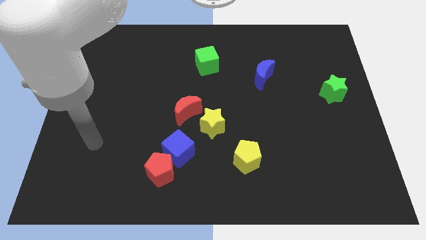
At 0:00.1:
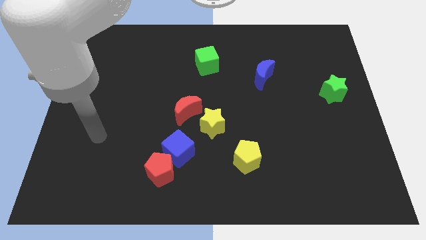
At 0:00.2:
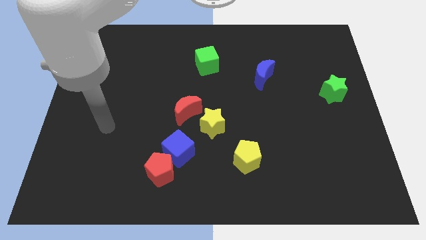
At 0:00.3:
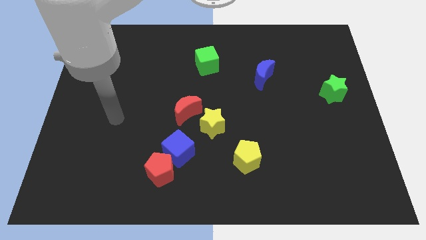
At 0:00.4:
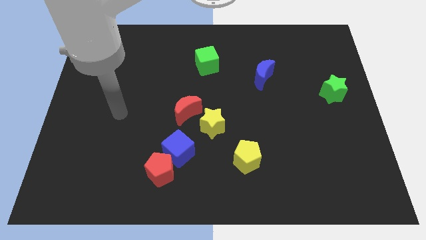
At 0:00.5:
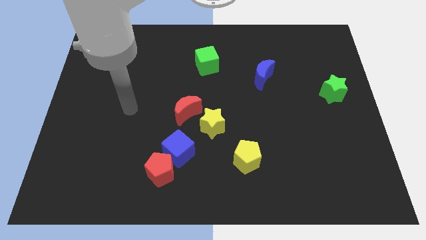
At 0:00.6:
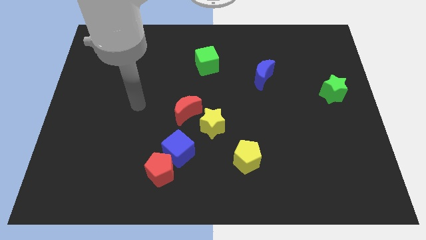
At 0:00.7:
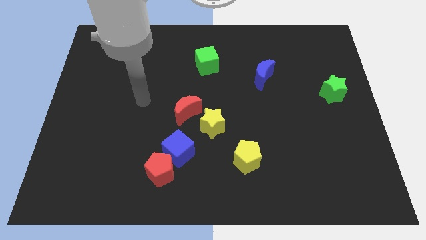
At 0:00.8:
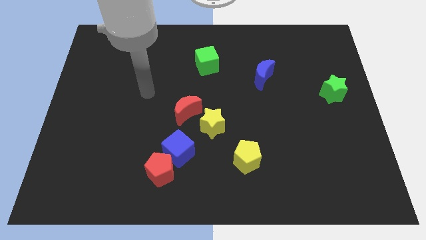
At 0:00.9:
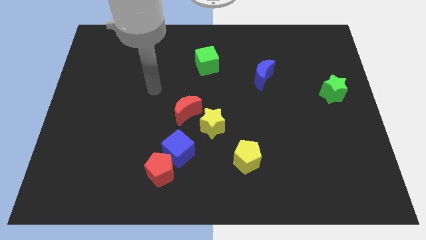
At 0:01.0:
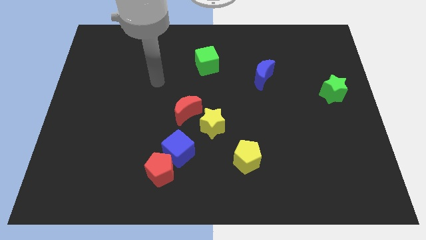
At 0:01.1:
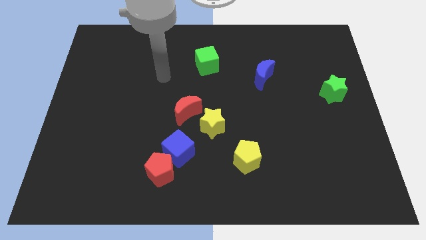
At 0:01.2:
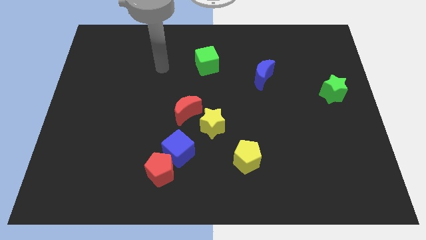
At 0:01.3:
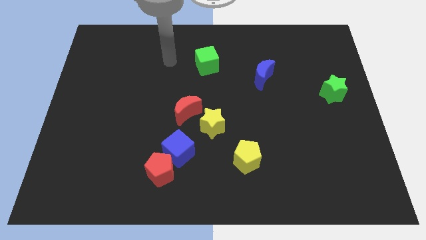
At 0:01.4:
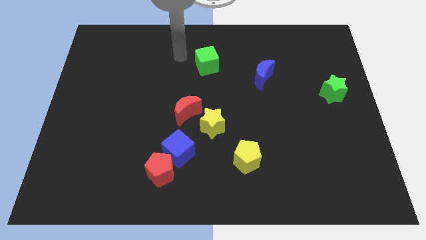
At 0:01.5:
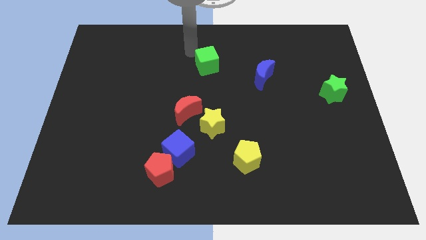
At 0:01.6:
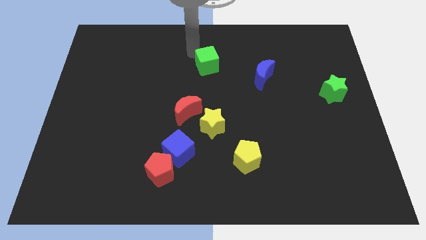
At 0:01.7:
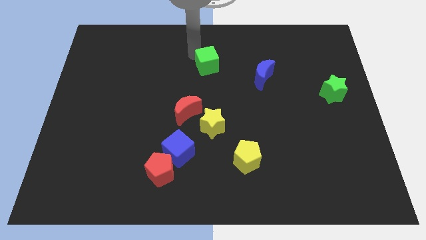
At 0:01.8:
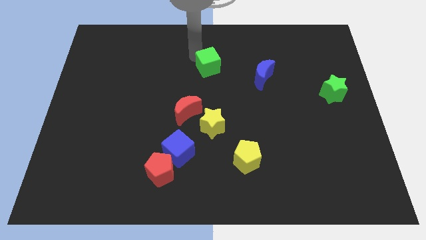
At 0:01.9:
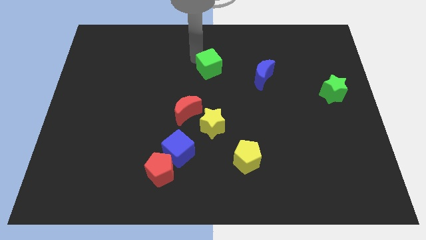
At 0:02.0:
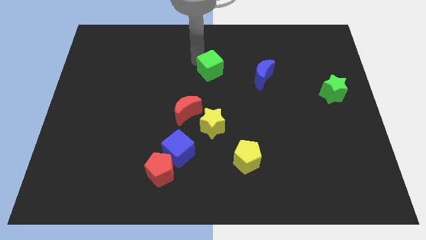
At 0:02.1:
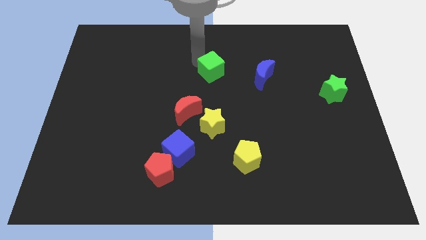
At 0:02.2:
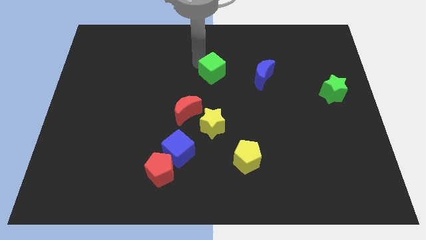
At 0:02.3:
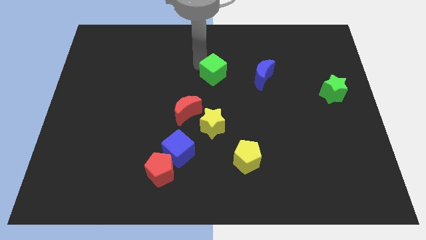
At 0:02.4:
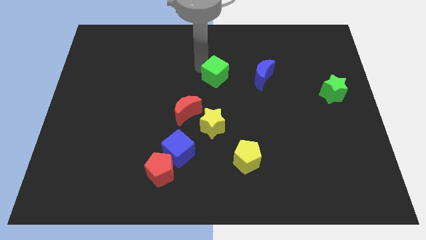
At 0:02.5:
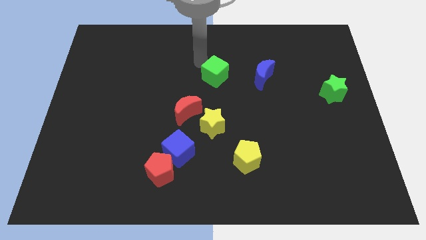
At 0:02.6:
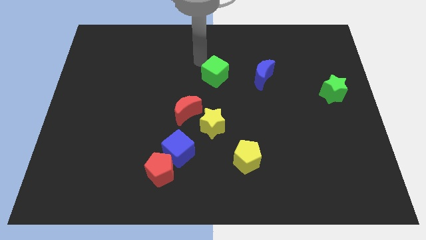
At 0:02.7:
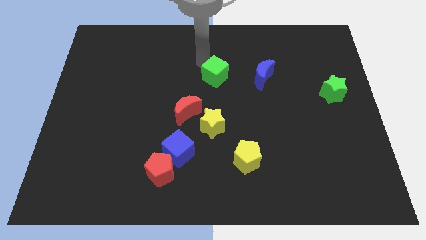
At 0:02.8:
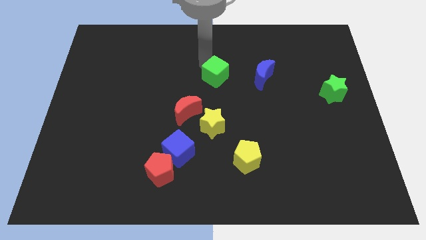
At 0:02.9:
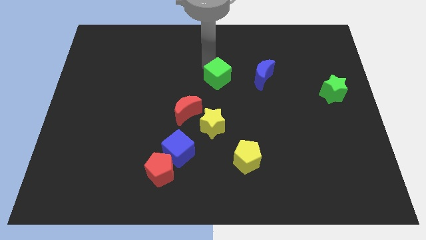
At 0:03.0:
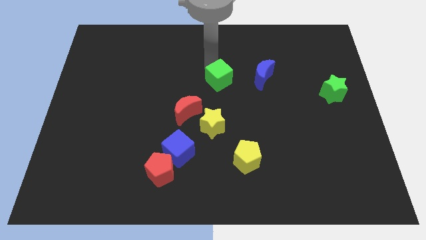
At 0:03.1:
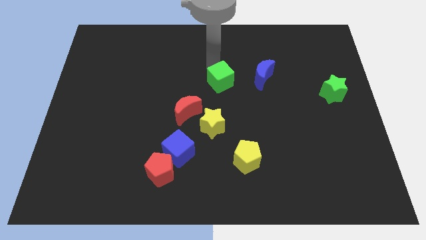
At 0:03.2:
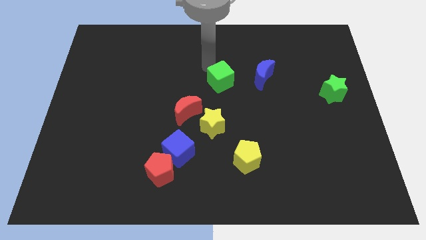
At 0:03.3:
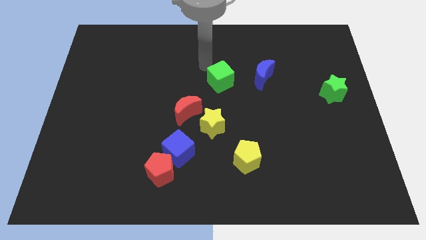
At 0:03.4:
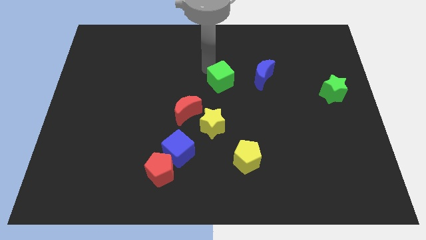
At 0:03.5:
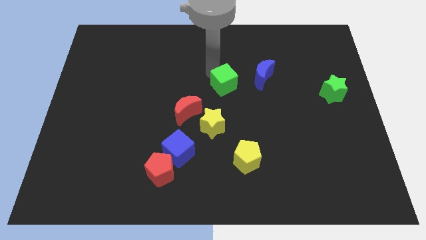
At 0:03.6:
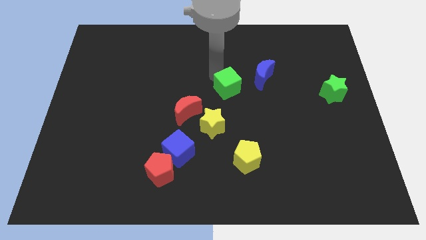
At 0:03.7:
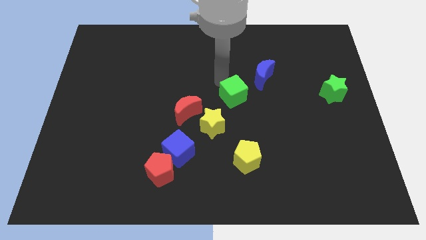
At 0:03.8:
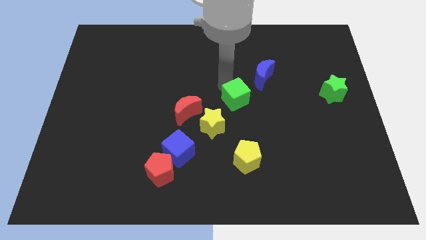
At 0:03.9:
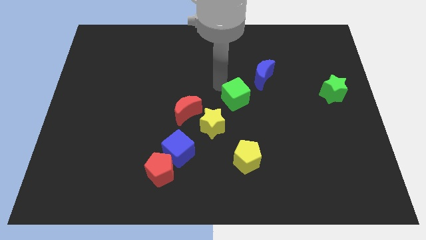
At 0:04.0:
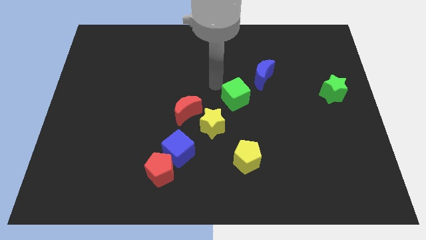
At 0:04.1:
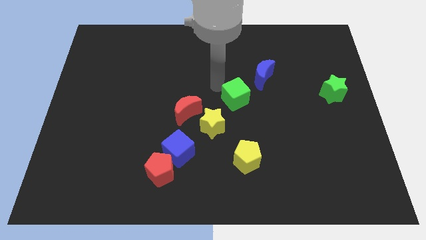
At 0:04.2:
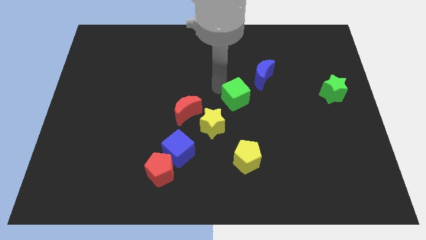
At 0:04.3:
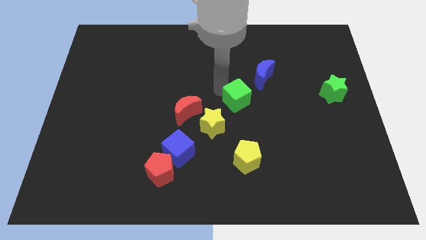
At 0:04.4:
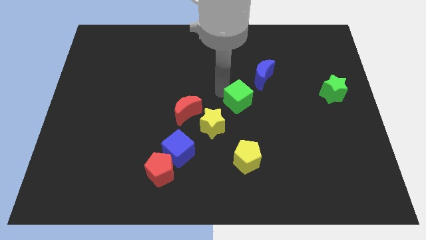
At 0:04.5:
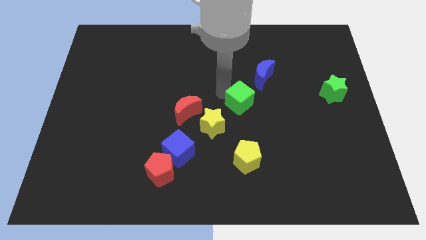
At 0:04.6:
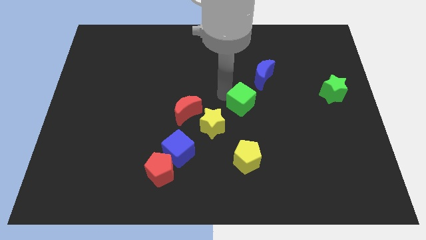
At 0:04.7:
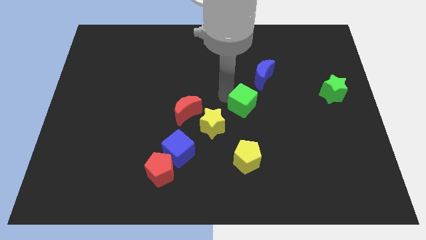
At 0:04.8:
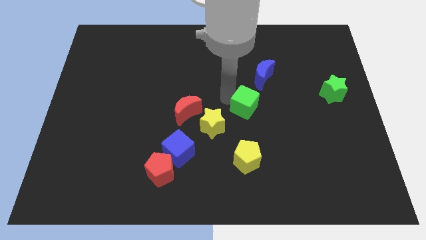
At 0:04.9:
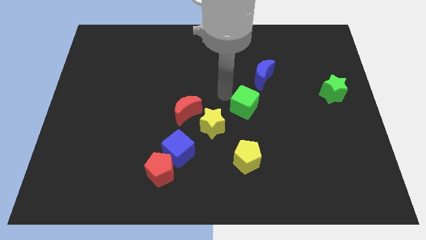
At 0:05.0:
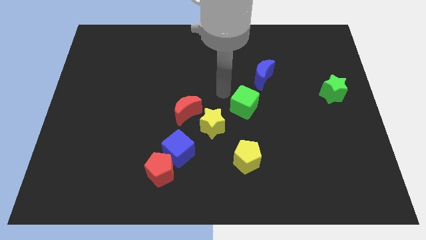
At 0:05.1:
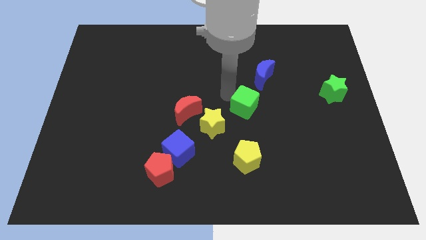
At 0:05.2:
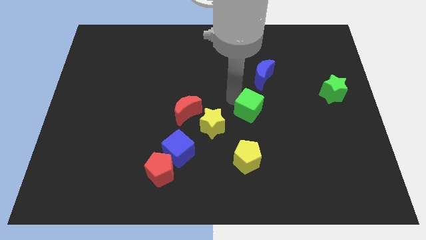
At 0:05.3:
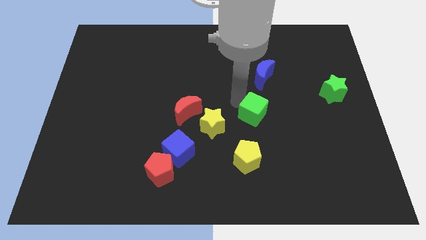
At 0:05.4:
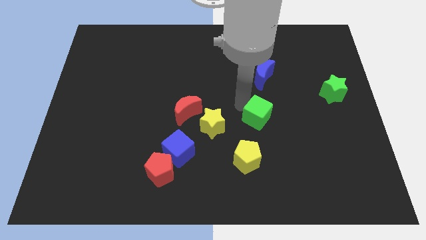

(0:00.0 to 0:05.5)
slide the green cube diagonally downwards and right

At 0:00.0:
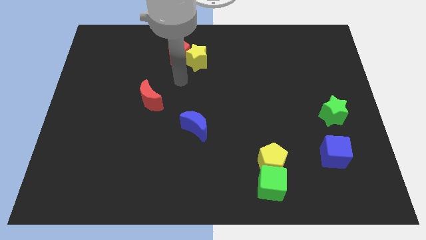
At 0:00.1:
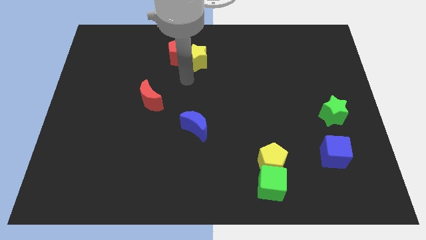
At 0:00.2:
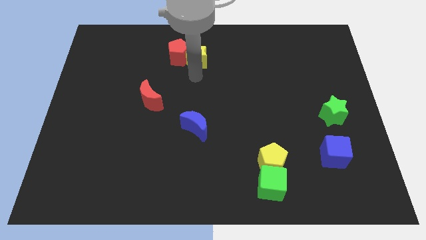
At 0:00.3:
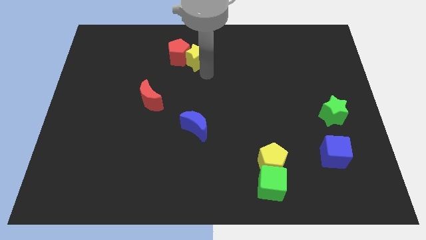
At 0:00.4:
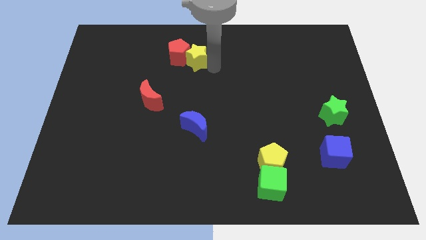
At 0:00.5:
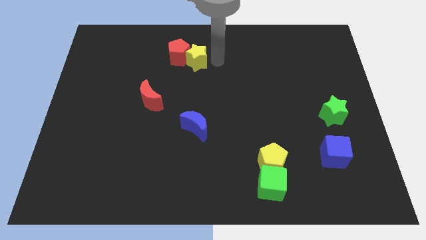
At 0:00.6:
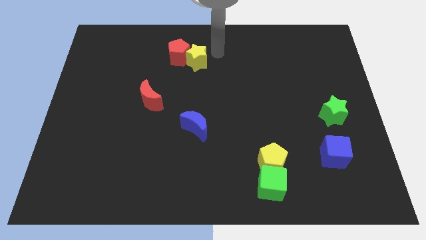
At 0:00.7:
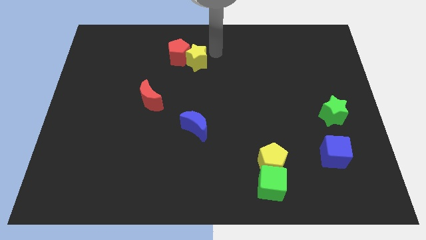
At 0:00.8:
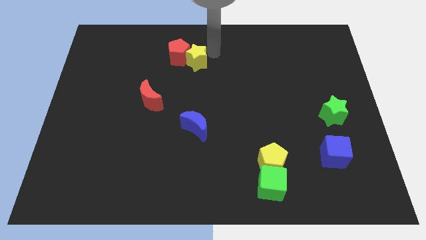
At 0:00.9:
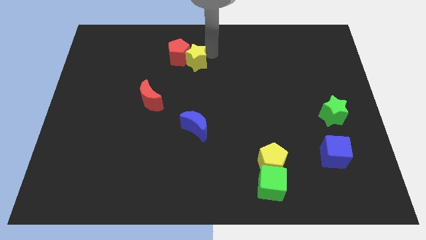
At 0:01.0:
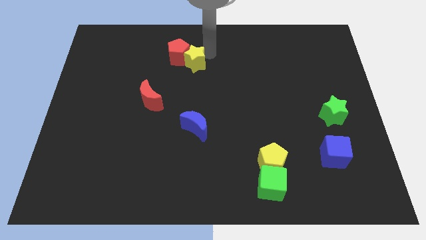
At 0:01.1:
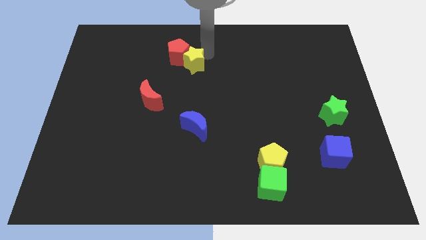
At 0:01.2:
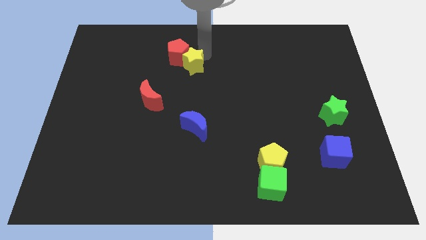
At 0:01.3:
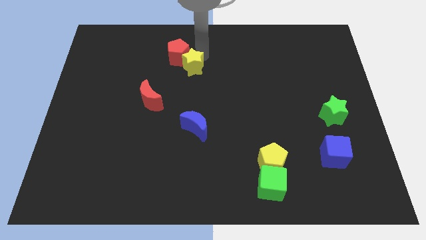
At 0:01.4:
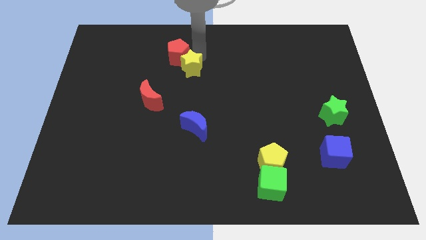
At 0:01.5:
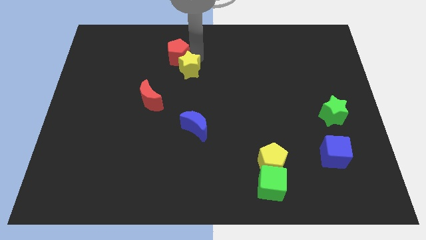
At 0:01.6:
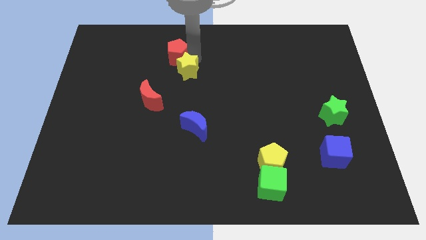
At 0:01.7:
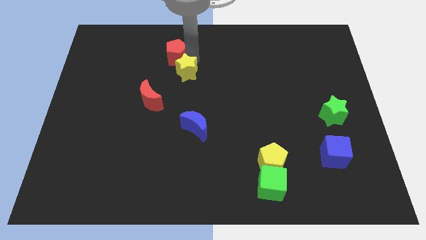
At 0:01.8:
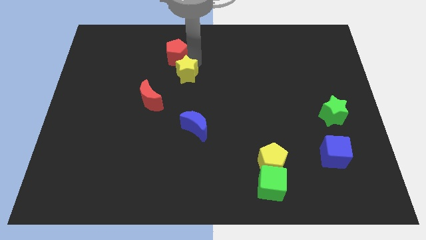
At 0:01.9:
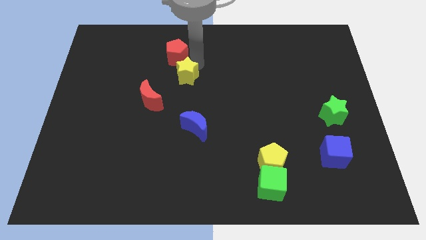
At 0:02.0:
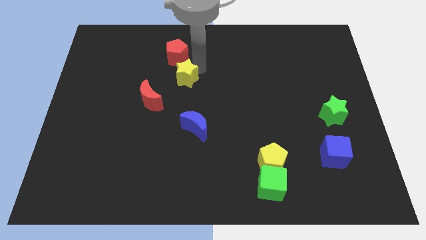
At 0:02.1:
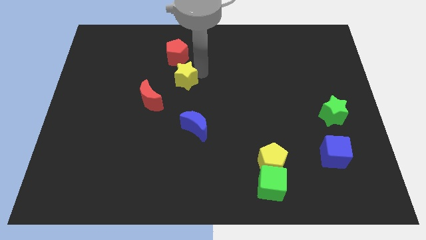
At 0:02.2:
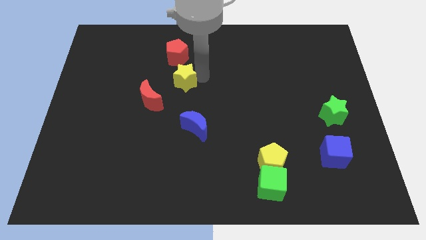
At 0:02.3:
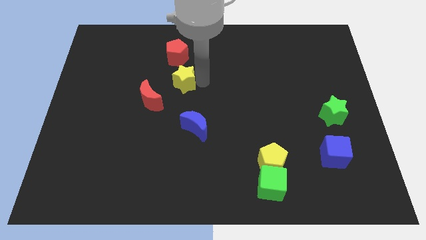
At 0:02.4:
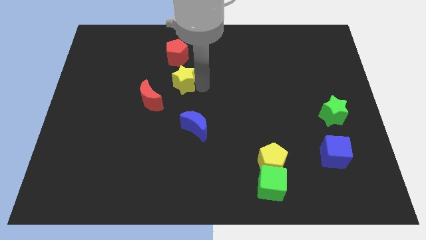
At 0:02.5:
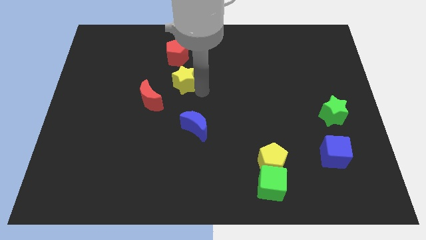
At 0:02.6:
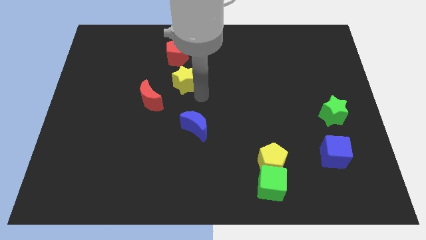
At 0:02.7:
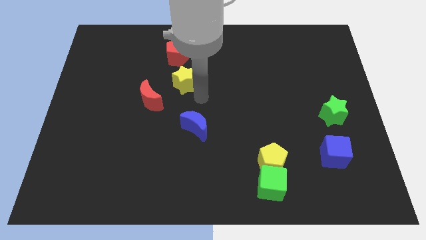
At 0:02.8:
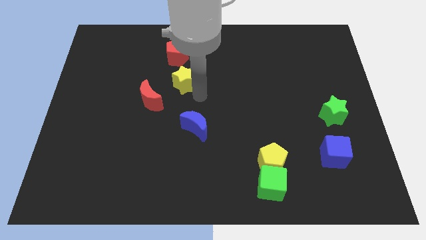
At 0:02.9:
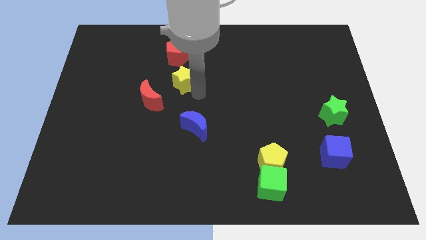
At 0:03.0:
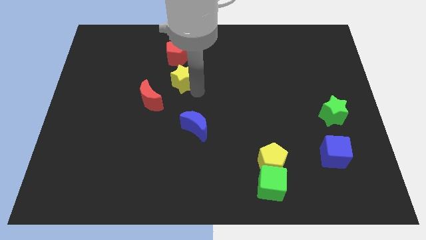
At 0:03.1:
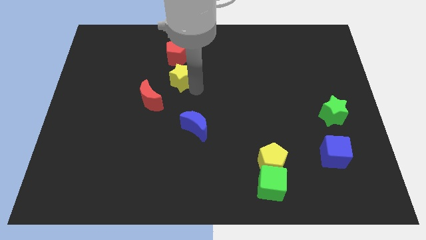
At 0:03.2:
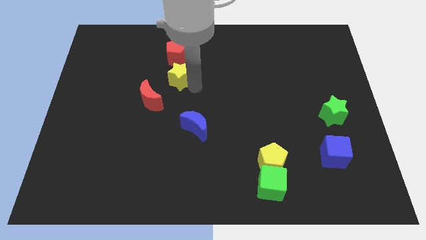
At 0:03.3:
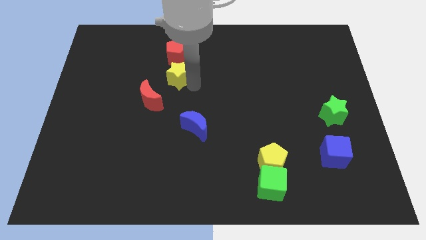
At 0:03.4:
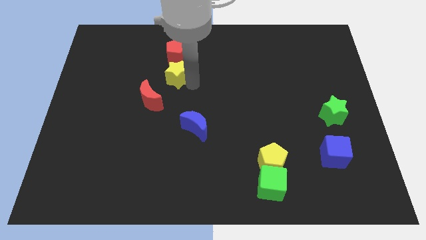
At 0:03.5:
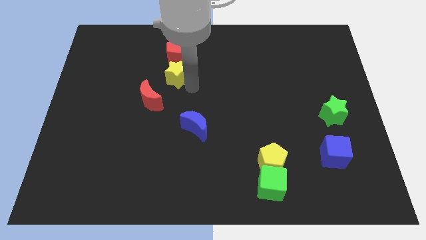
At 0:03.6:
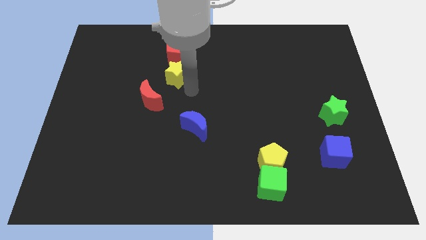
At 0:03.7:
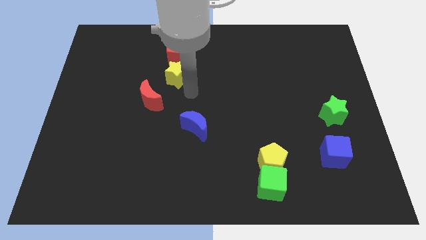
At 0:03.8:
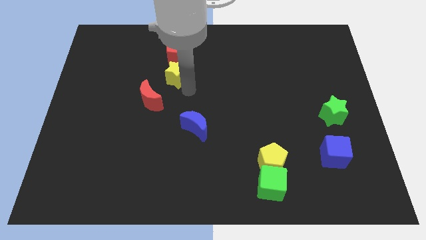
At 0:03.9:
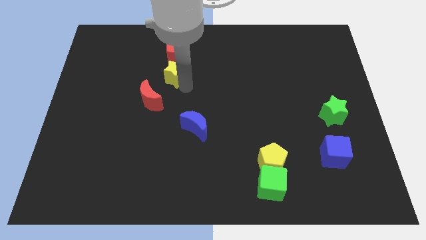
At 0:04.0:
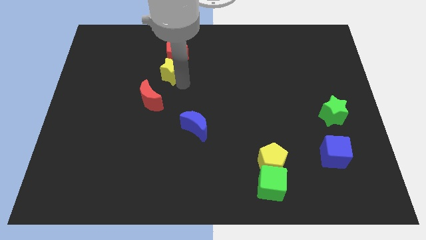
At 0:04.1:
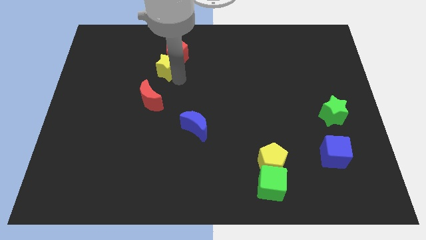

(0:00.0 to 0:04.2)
slightly slide the yellow star left
